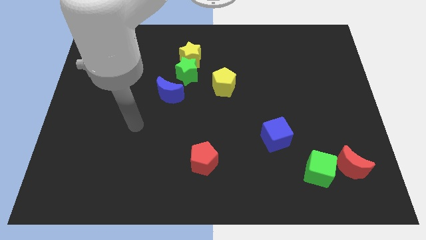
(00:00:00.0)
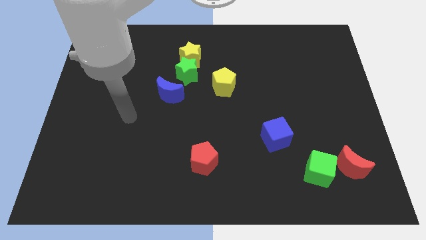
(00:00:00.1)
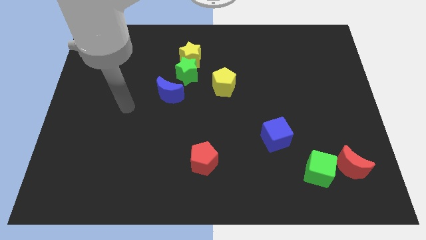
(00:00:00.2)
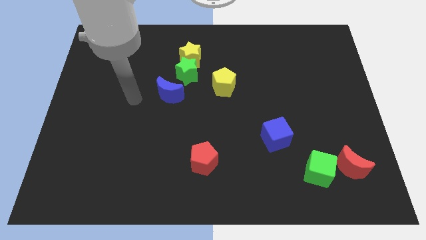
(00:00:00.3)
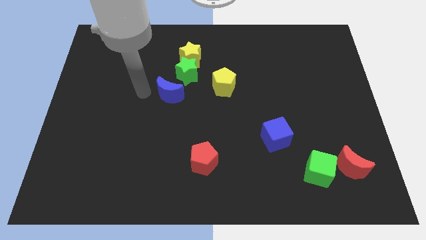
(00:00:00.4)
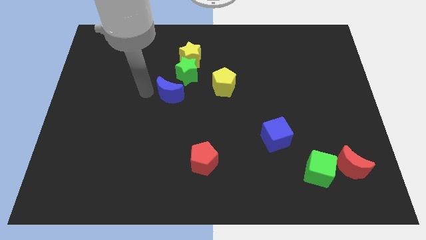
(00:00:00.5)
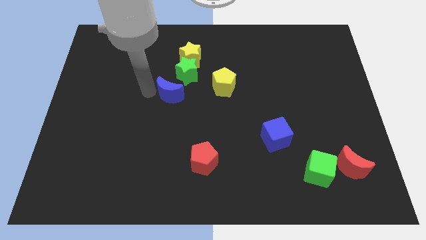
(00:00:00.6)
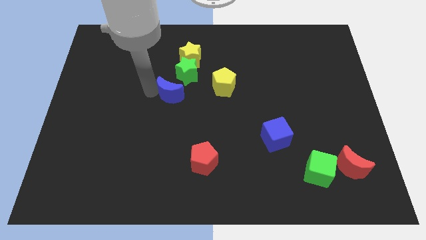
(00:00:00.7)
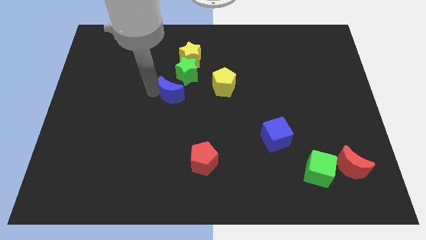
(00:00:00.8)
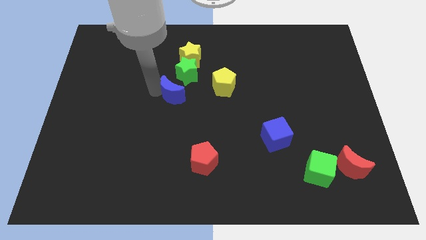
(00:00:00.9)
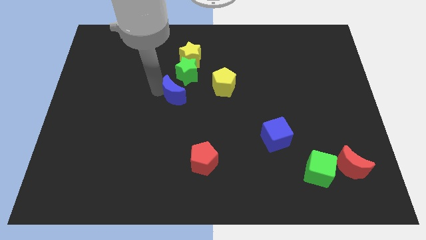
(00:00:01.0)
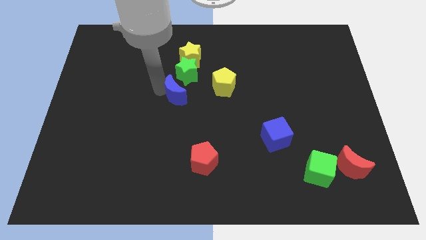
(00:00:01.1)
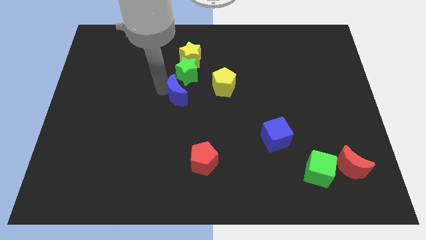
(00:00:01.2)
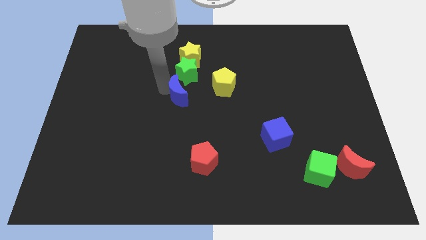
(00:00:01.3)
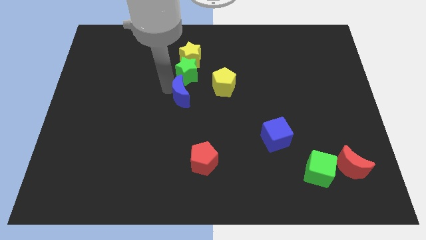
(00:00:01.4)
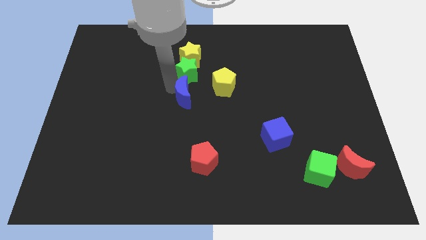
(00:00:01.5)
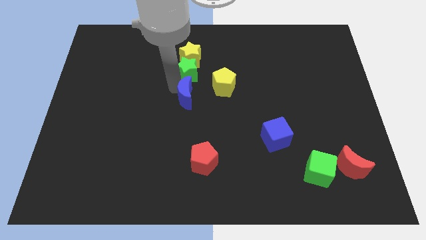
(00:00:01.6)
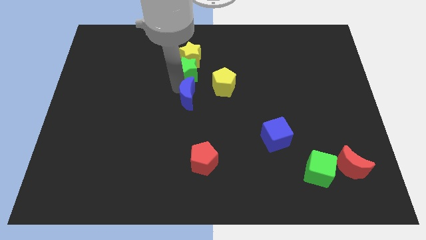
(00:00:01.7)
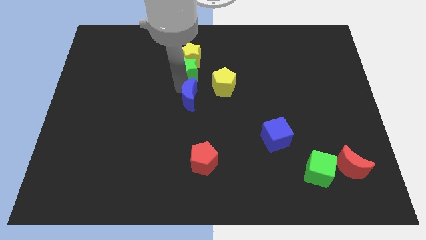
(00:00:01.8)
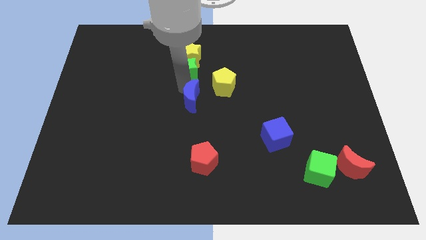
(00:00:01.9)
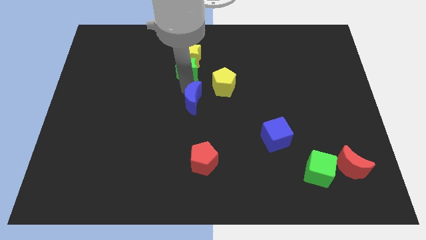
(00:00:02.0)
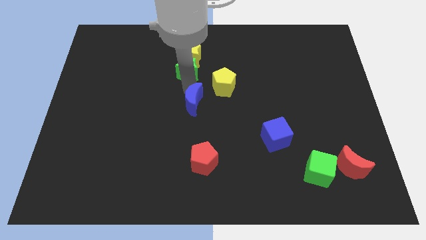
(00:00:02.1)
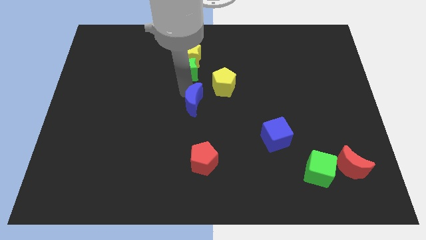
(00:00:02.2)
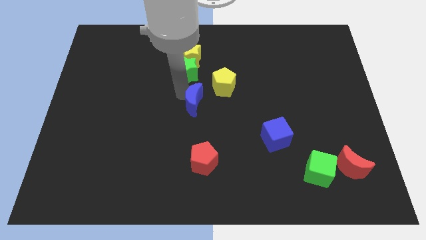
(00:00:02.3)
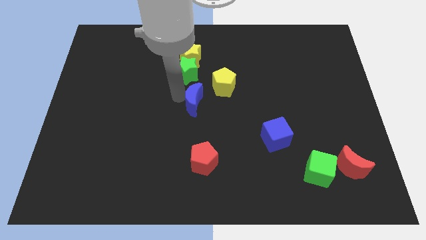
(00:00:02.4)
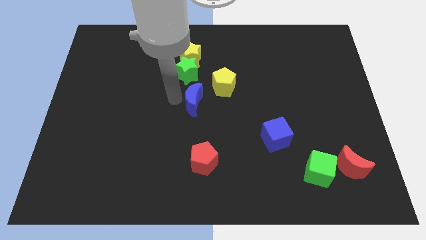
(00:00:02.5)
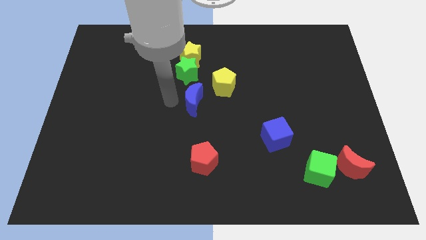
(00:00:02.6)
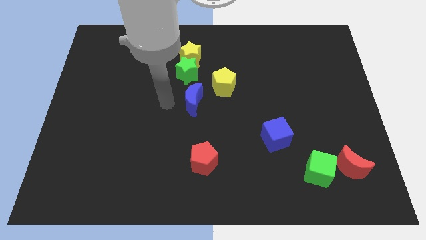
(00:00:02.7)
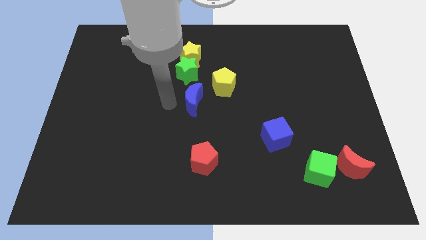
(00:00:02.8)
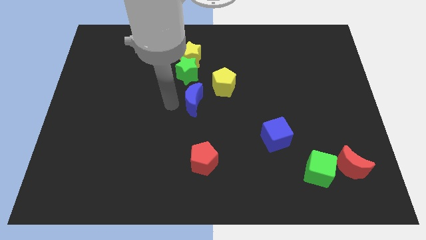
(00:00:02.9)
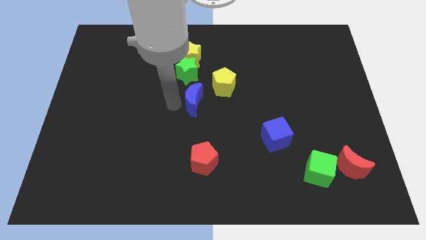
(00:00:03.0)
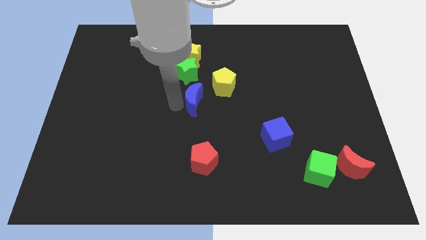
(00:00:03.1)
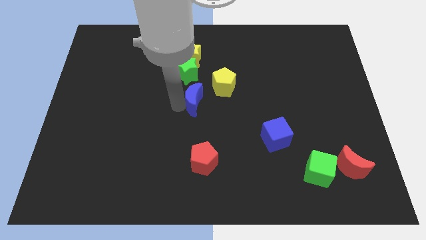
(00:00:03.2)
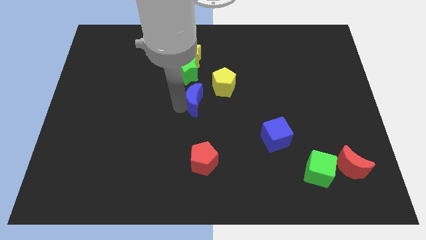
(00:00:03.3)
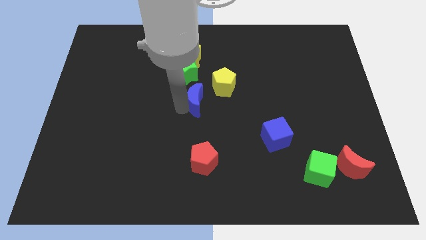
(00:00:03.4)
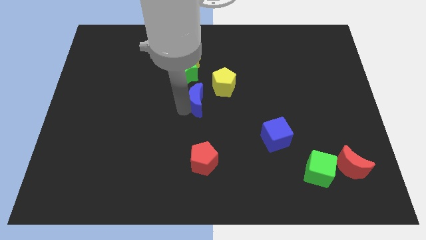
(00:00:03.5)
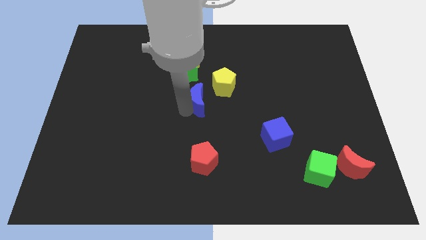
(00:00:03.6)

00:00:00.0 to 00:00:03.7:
slide the blue moon slightly right

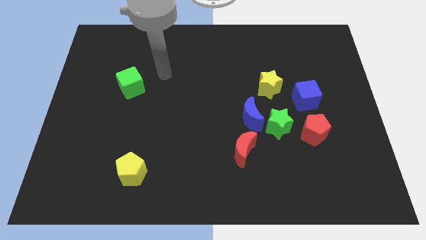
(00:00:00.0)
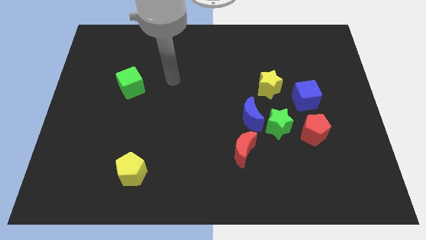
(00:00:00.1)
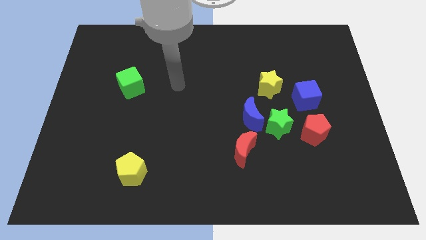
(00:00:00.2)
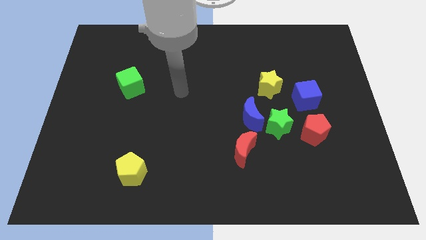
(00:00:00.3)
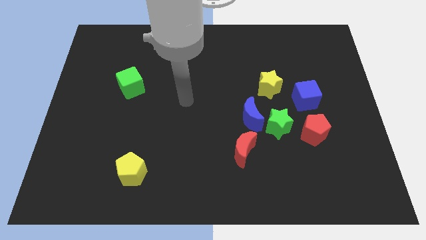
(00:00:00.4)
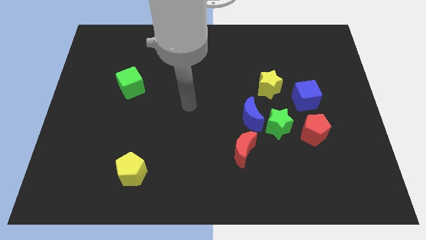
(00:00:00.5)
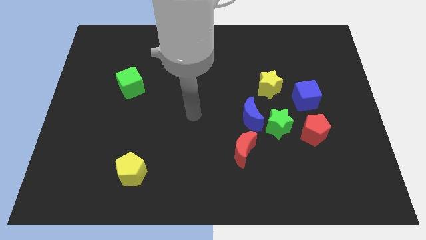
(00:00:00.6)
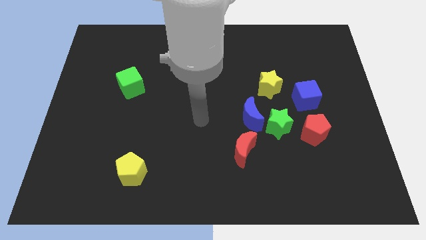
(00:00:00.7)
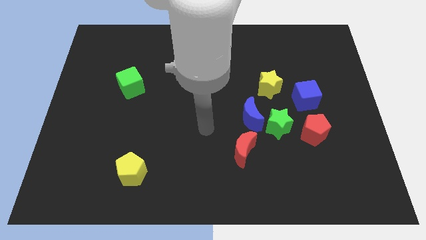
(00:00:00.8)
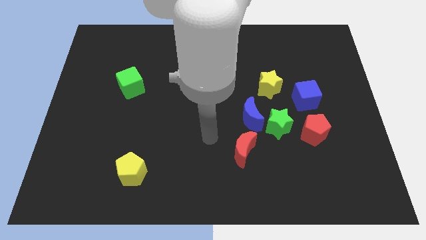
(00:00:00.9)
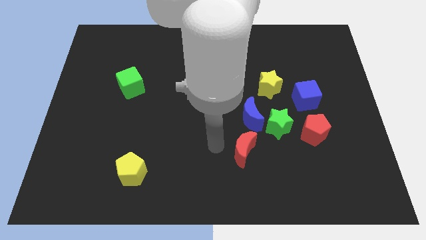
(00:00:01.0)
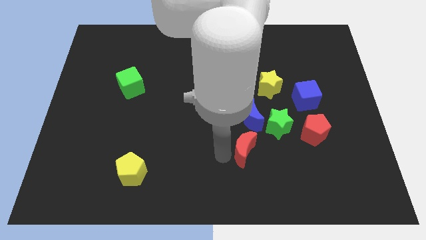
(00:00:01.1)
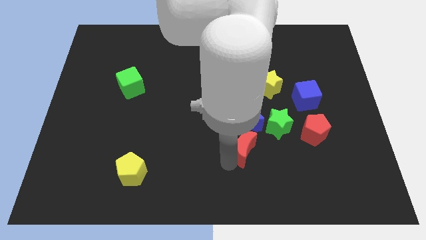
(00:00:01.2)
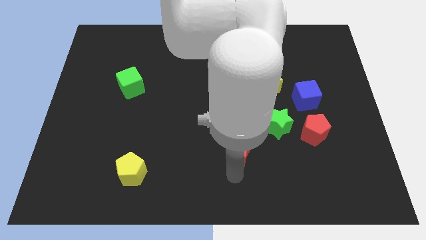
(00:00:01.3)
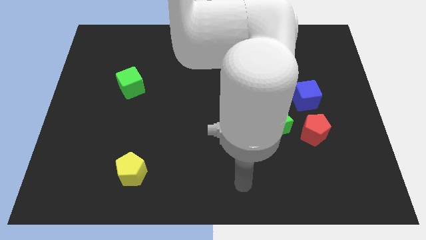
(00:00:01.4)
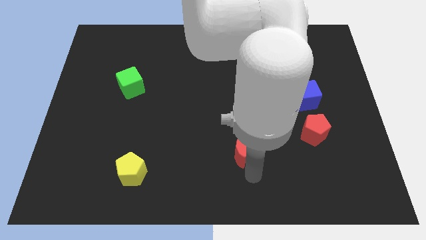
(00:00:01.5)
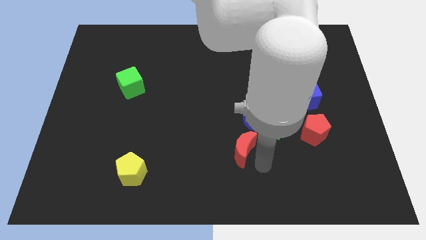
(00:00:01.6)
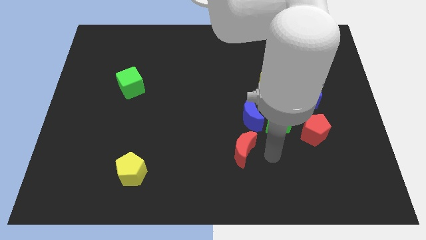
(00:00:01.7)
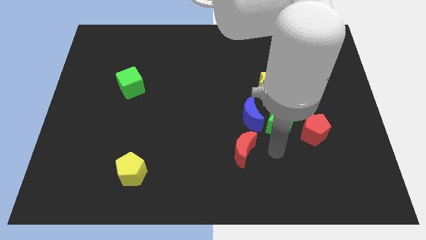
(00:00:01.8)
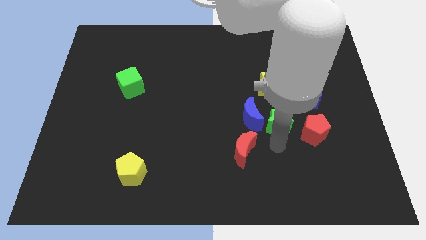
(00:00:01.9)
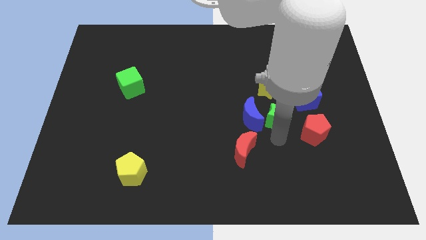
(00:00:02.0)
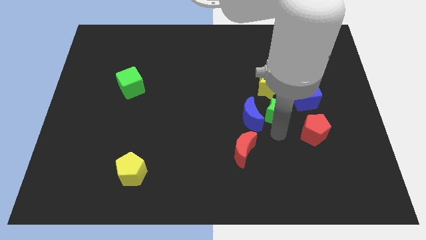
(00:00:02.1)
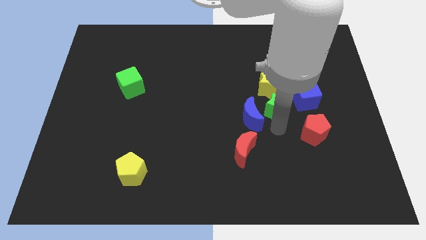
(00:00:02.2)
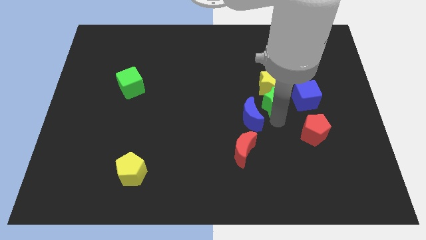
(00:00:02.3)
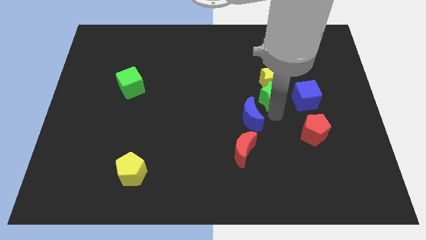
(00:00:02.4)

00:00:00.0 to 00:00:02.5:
slide the green star upwards slightly

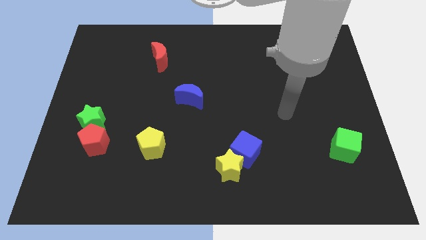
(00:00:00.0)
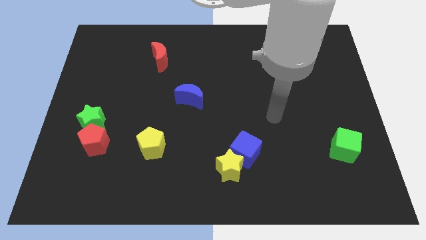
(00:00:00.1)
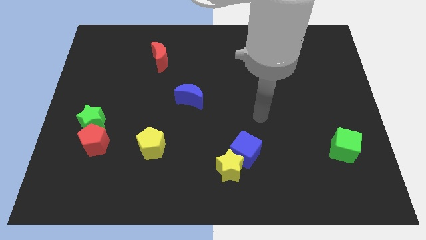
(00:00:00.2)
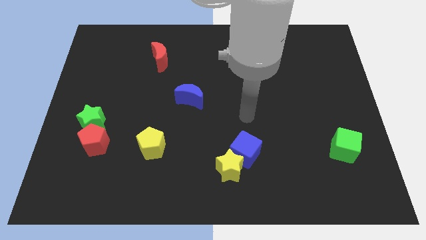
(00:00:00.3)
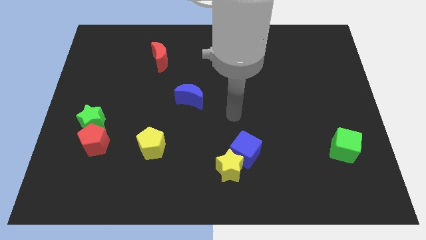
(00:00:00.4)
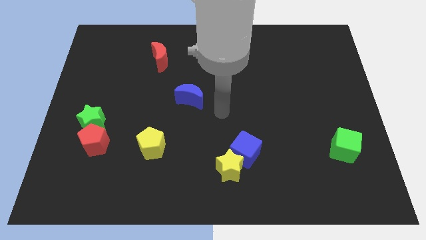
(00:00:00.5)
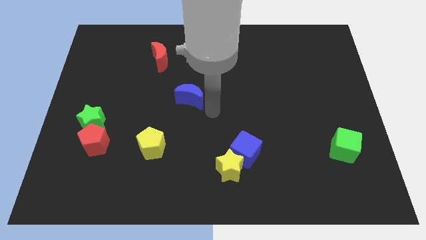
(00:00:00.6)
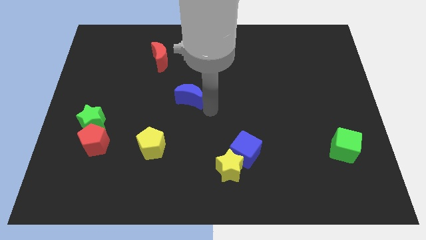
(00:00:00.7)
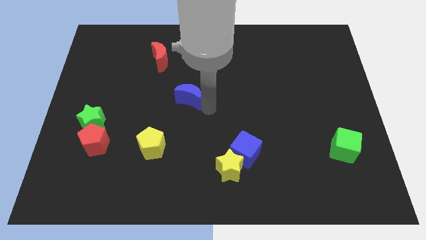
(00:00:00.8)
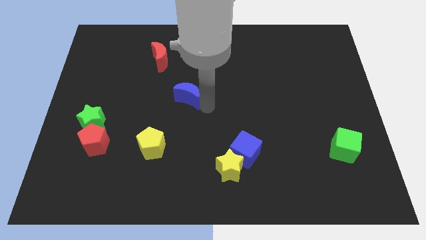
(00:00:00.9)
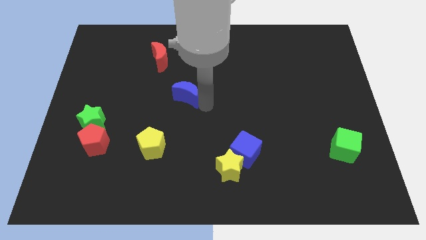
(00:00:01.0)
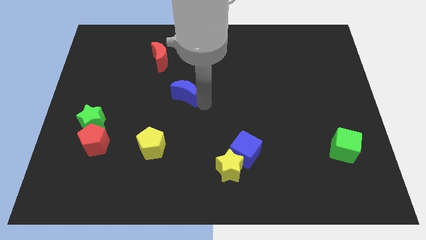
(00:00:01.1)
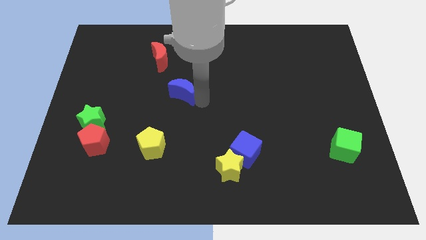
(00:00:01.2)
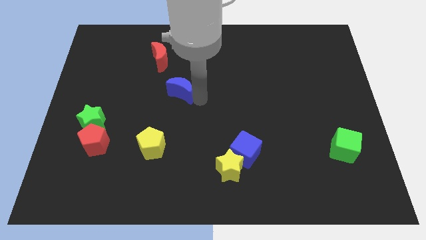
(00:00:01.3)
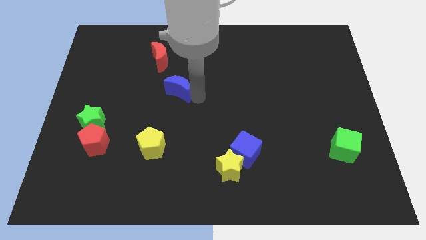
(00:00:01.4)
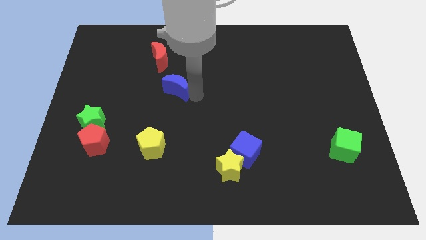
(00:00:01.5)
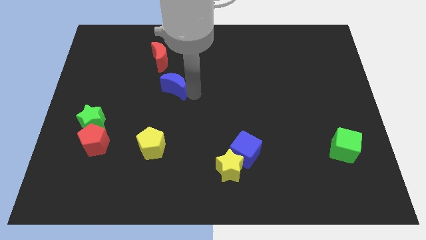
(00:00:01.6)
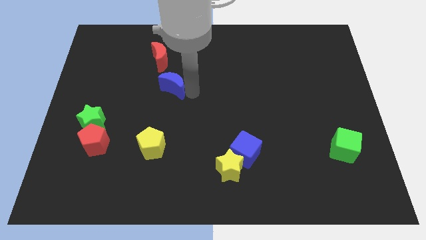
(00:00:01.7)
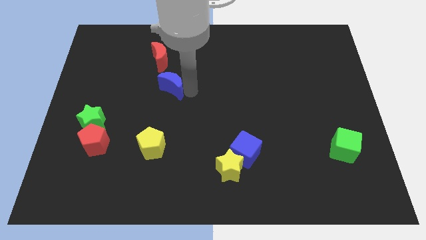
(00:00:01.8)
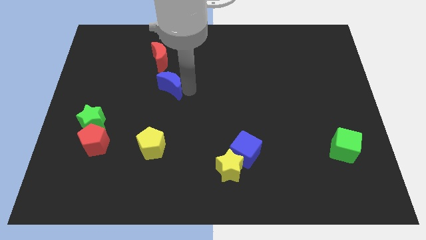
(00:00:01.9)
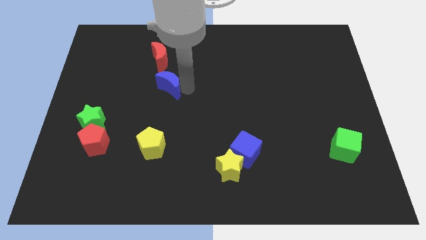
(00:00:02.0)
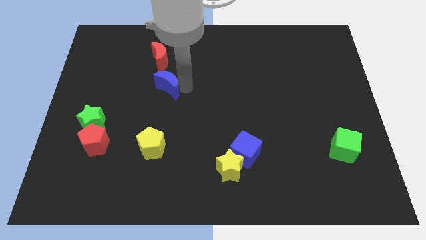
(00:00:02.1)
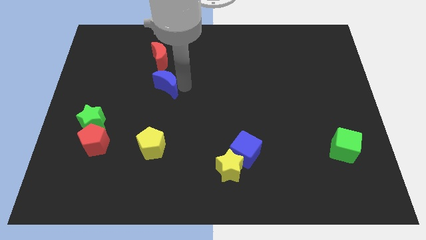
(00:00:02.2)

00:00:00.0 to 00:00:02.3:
slide the blue moon up and left diagonally somewhat
